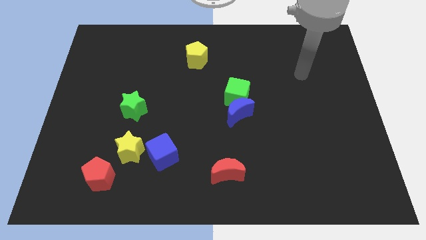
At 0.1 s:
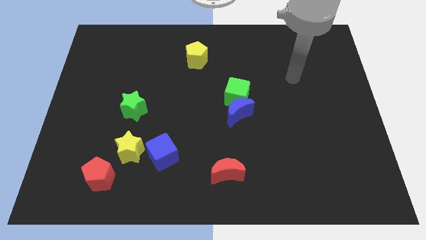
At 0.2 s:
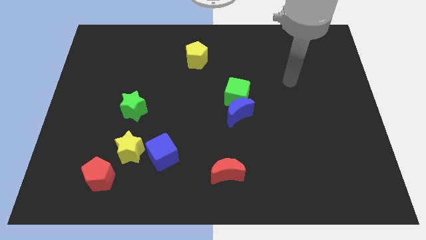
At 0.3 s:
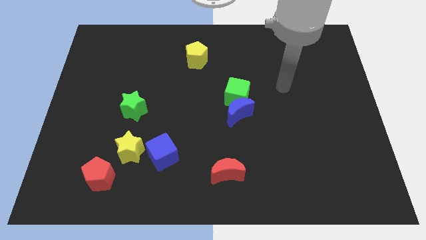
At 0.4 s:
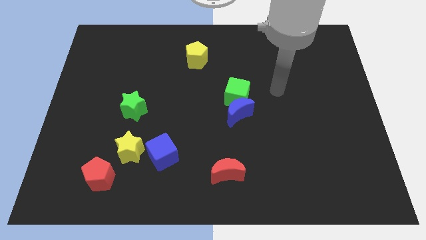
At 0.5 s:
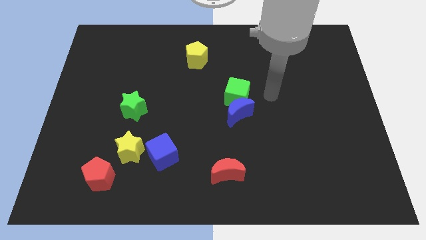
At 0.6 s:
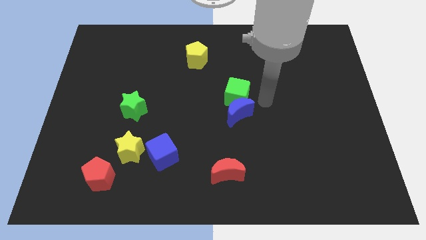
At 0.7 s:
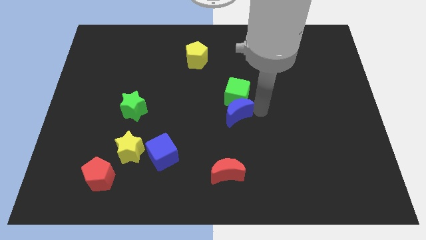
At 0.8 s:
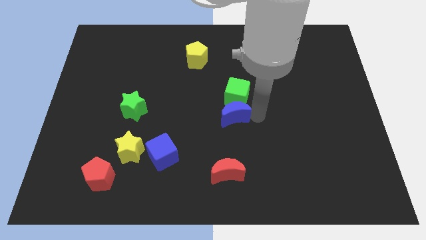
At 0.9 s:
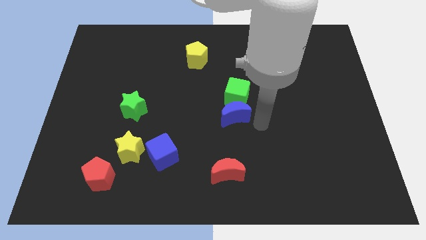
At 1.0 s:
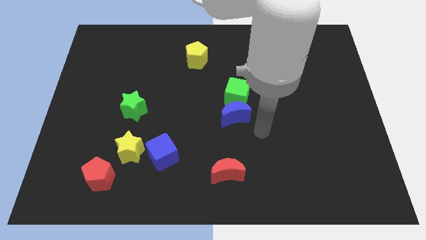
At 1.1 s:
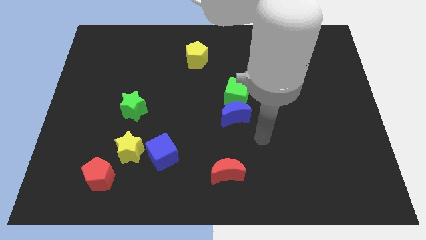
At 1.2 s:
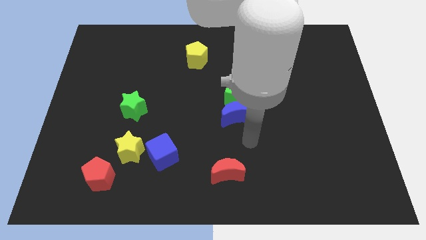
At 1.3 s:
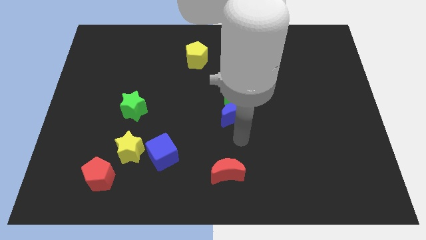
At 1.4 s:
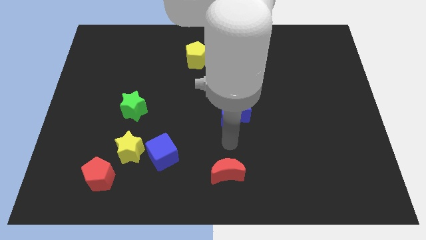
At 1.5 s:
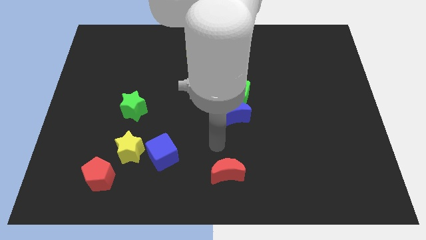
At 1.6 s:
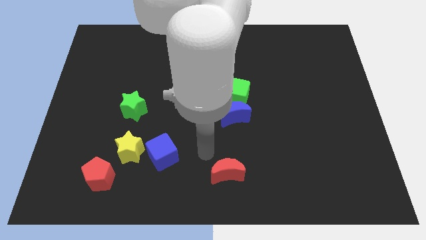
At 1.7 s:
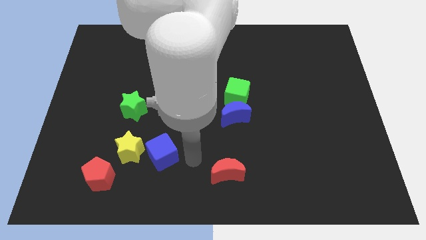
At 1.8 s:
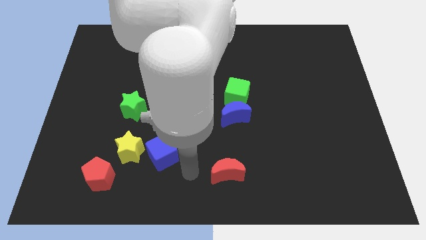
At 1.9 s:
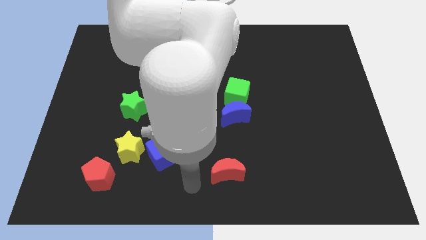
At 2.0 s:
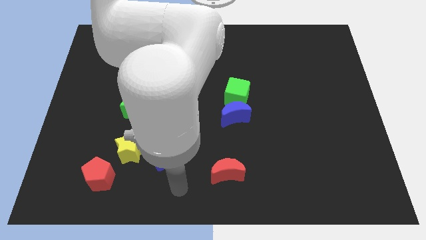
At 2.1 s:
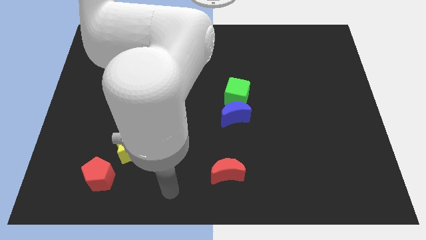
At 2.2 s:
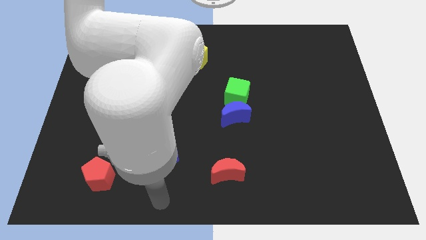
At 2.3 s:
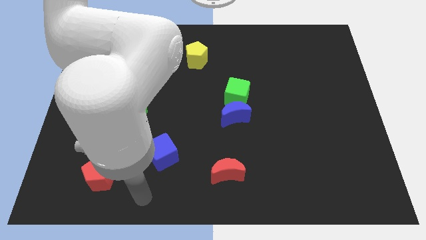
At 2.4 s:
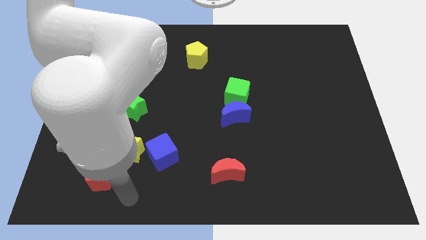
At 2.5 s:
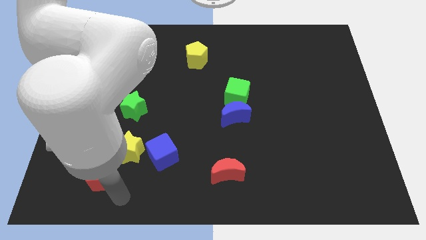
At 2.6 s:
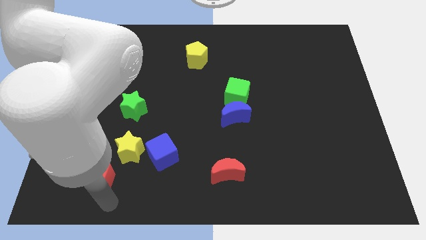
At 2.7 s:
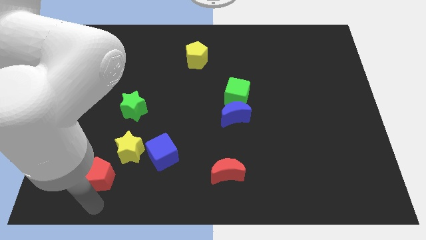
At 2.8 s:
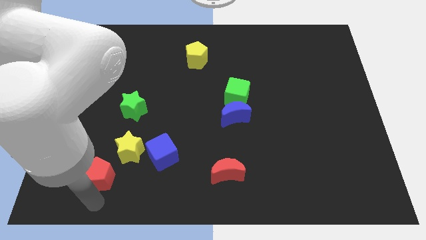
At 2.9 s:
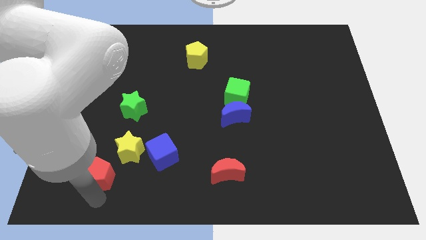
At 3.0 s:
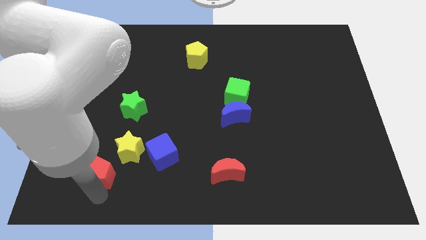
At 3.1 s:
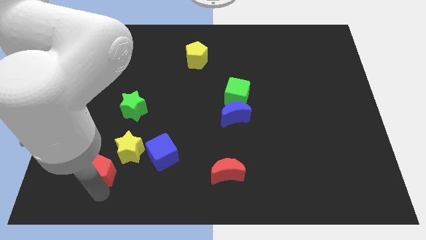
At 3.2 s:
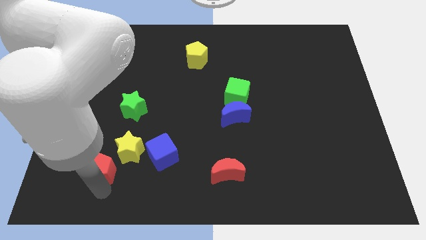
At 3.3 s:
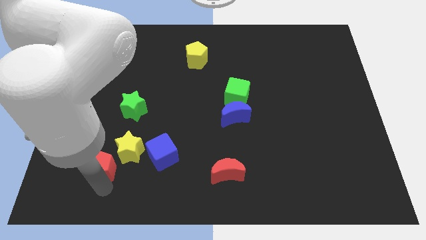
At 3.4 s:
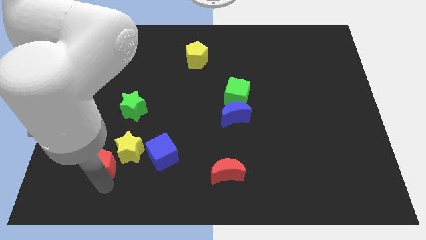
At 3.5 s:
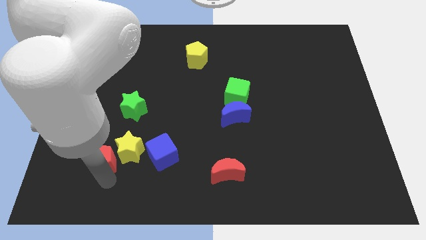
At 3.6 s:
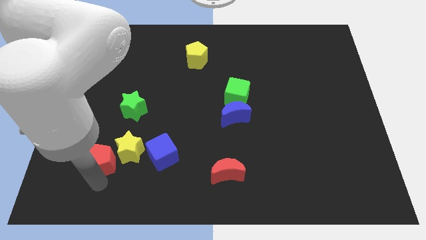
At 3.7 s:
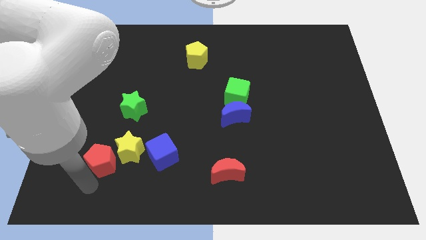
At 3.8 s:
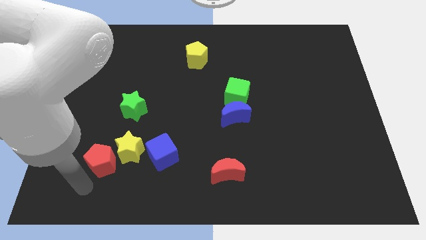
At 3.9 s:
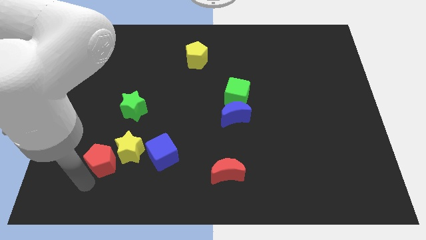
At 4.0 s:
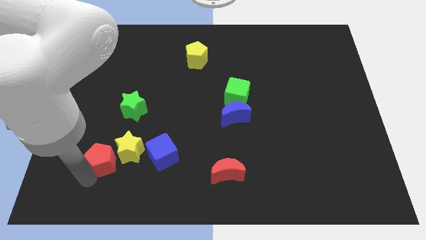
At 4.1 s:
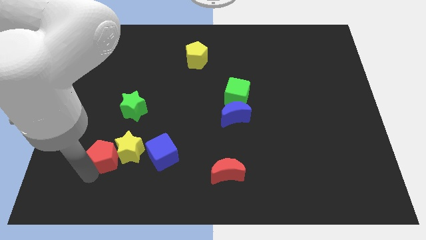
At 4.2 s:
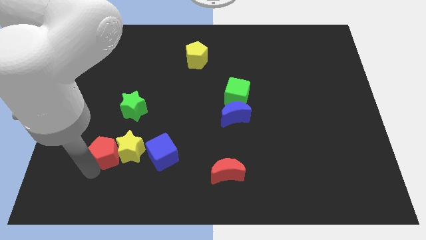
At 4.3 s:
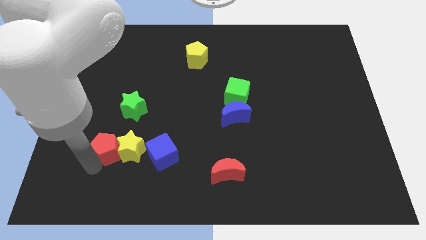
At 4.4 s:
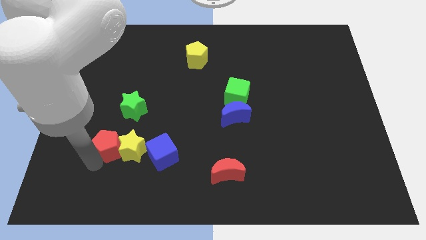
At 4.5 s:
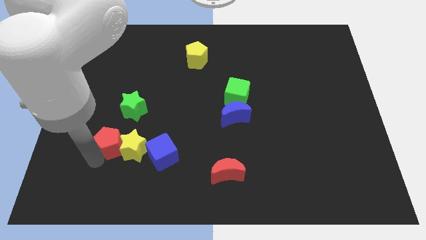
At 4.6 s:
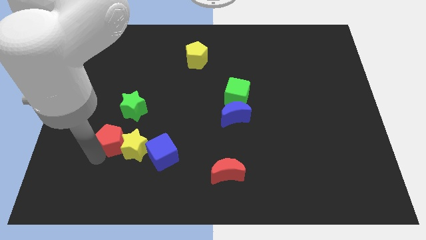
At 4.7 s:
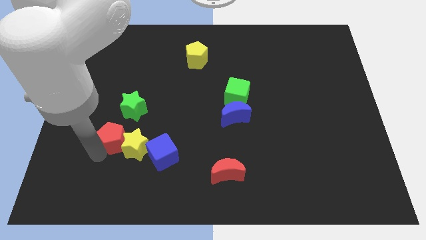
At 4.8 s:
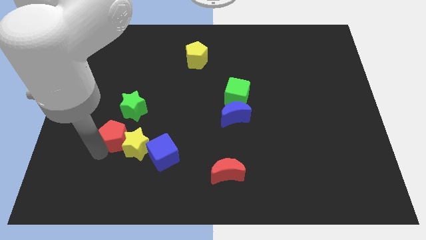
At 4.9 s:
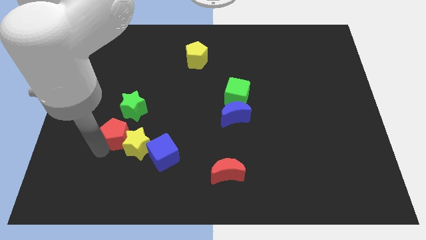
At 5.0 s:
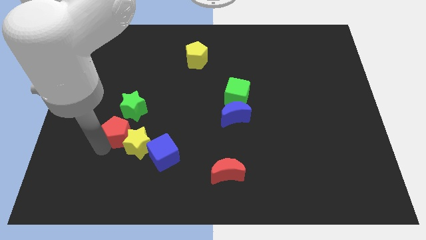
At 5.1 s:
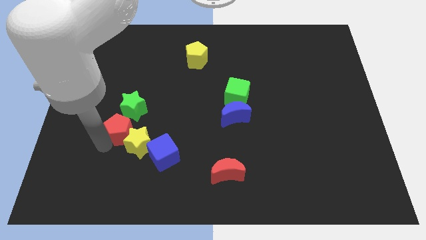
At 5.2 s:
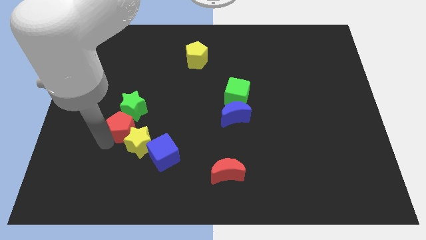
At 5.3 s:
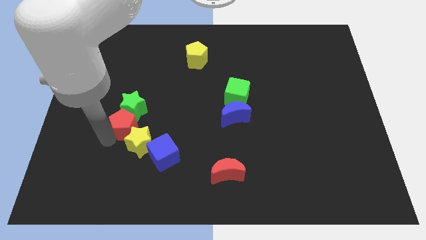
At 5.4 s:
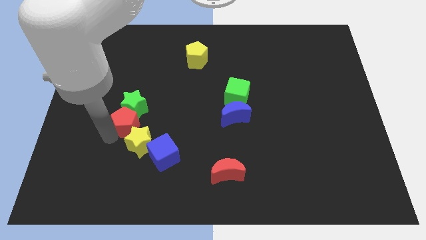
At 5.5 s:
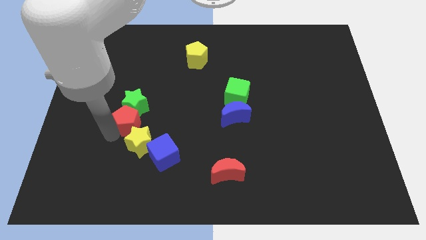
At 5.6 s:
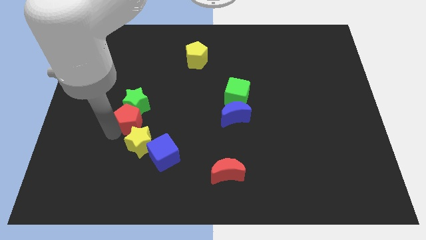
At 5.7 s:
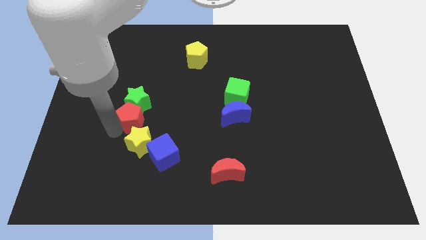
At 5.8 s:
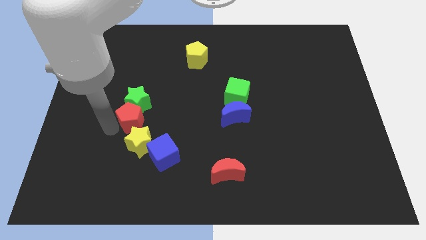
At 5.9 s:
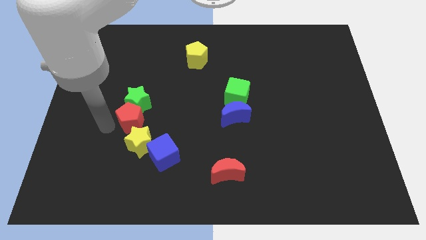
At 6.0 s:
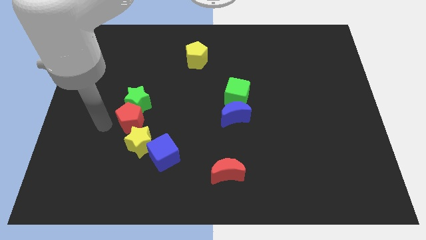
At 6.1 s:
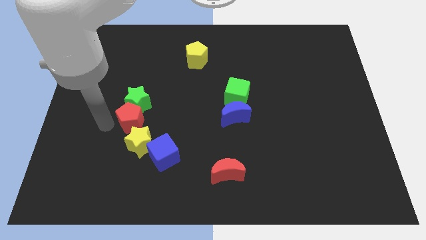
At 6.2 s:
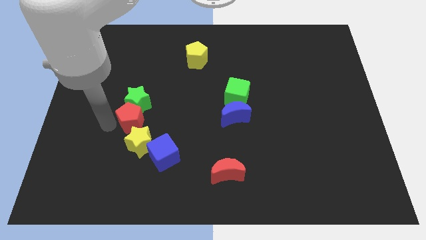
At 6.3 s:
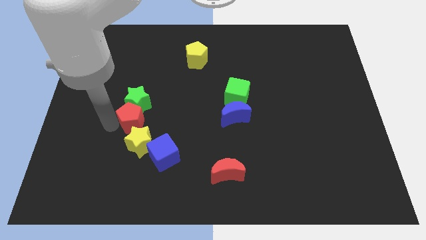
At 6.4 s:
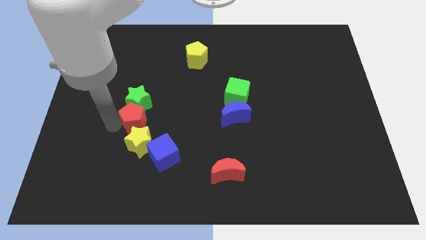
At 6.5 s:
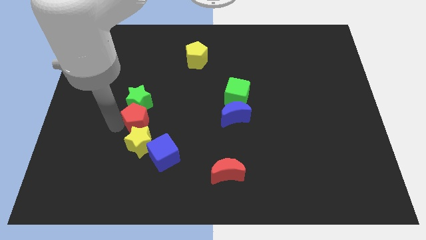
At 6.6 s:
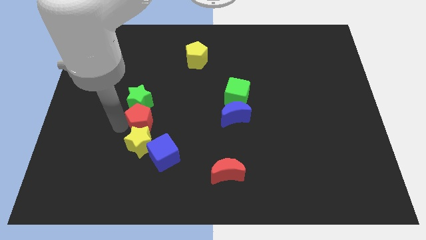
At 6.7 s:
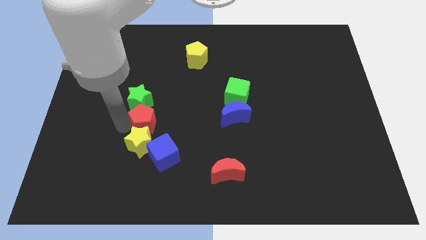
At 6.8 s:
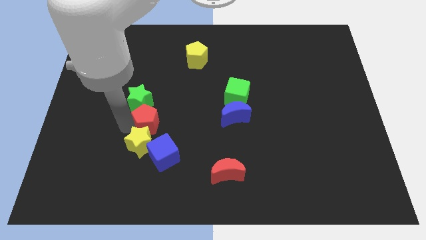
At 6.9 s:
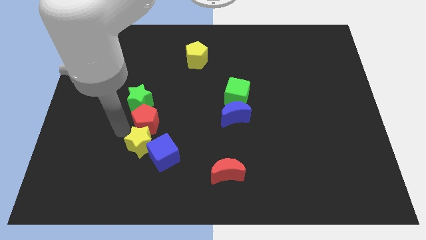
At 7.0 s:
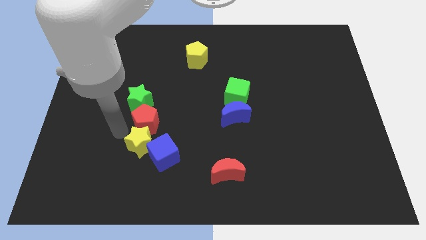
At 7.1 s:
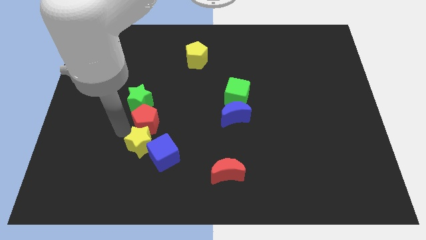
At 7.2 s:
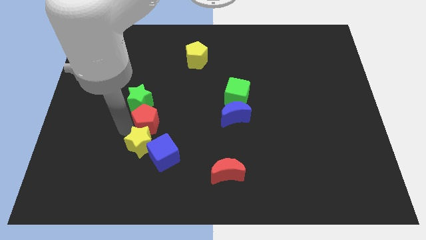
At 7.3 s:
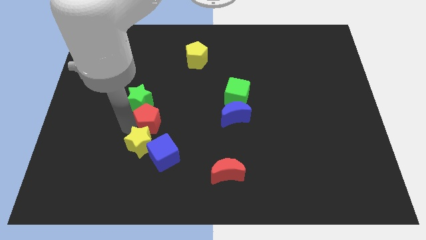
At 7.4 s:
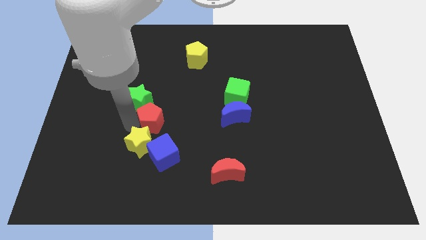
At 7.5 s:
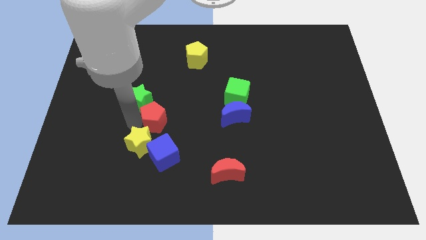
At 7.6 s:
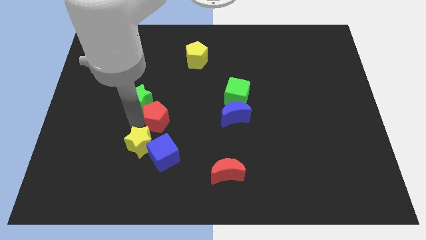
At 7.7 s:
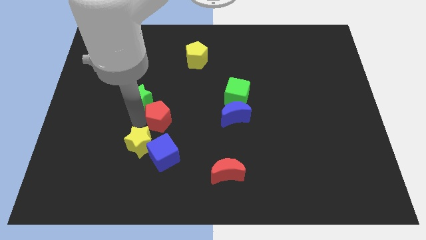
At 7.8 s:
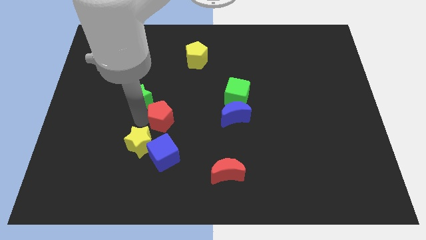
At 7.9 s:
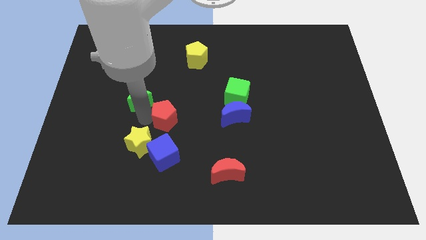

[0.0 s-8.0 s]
push the red pentagon to the middle of the board
